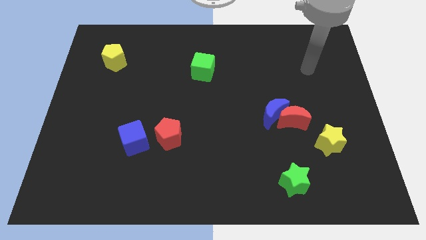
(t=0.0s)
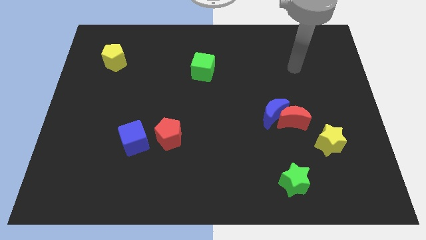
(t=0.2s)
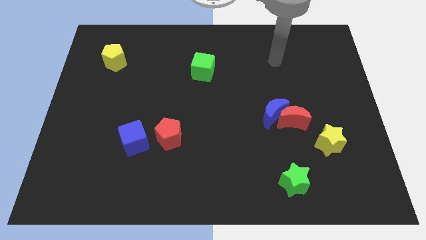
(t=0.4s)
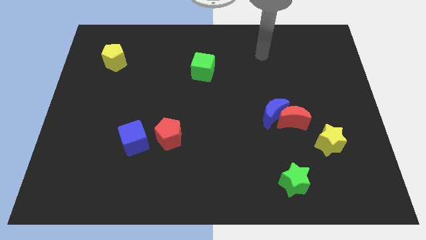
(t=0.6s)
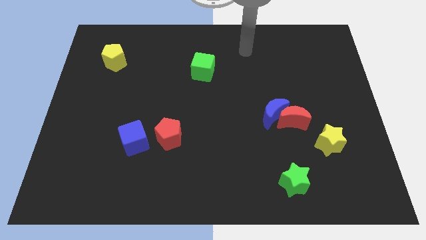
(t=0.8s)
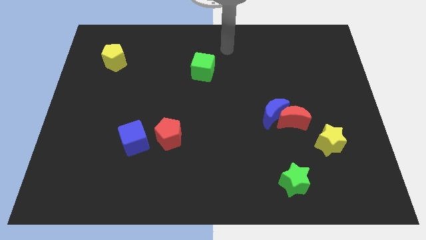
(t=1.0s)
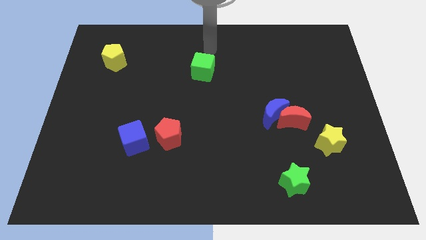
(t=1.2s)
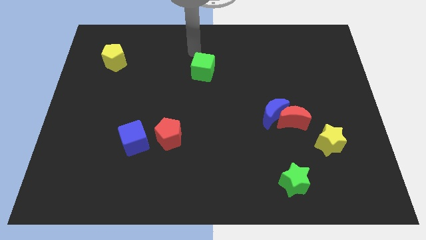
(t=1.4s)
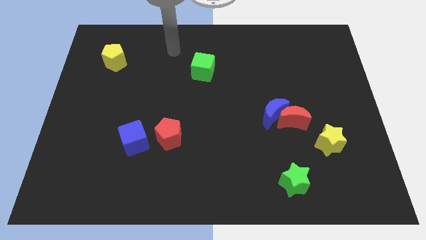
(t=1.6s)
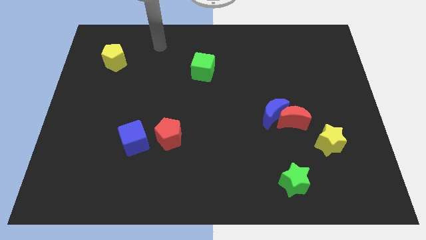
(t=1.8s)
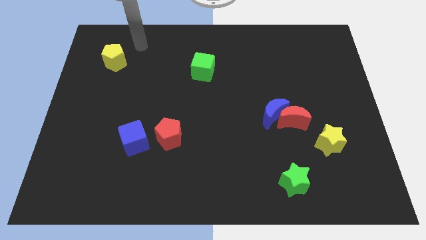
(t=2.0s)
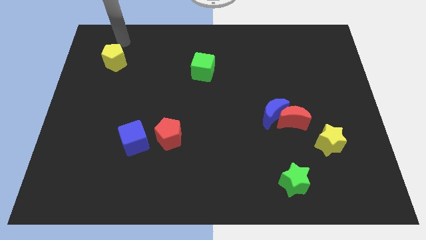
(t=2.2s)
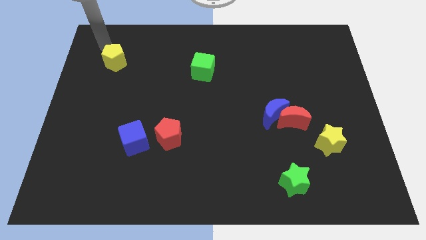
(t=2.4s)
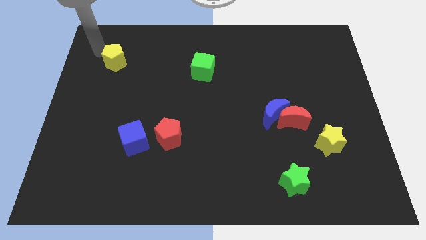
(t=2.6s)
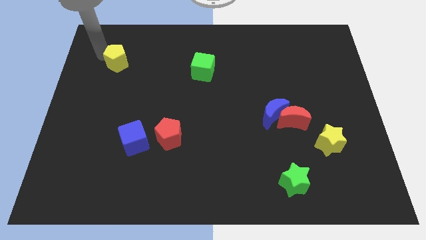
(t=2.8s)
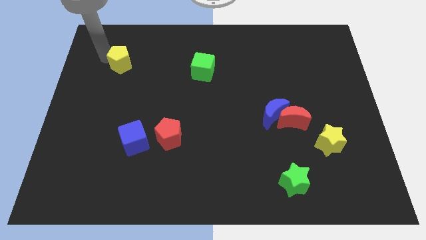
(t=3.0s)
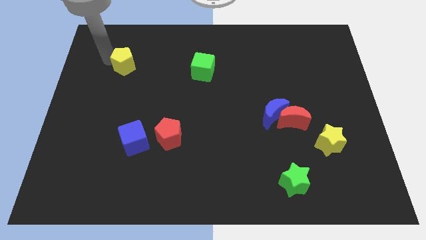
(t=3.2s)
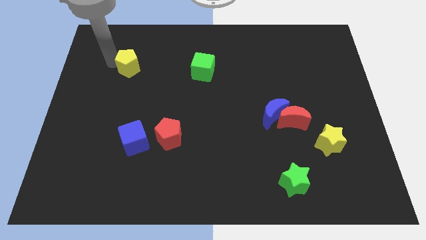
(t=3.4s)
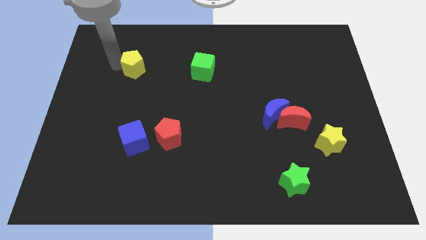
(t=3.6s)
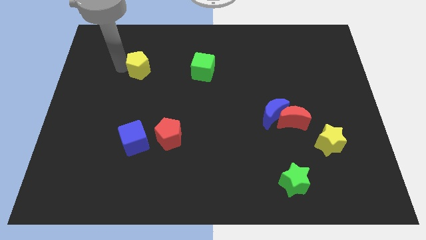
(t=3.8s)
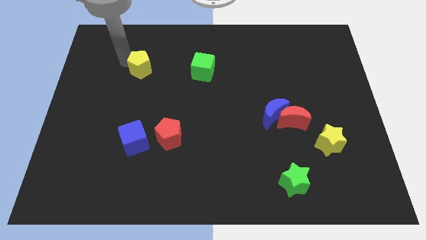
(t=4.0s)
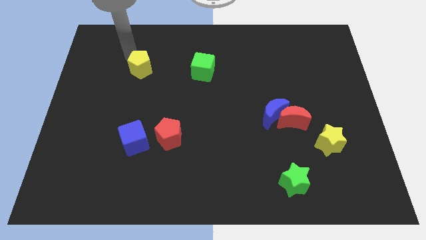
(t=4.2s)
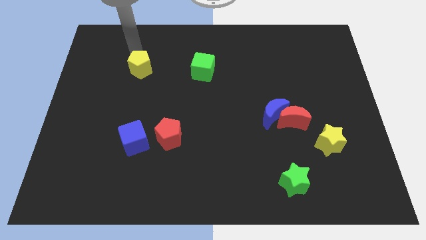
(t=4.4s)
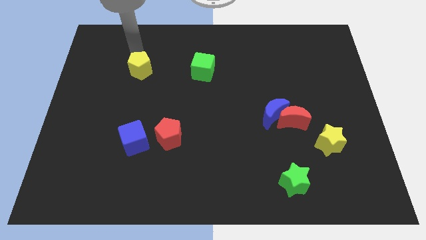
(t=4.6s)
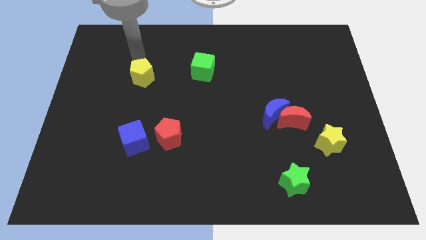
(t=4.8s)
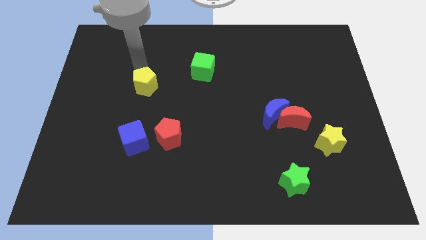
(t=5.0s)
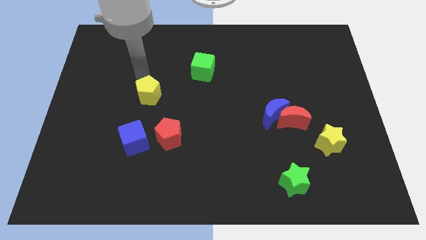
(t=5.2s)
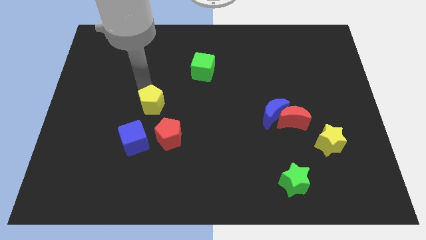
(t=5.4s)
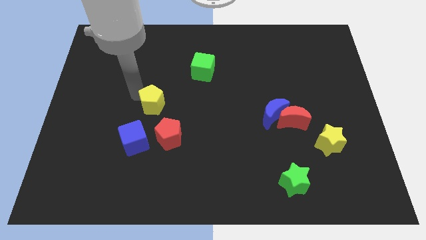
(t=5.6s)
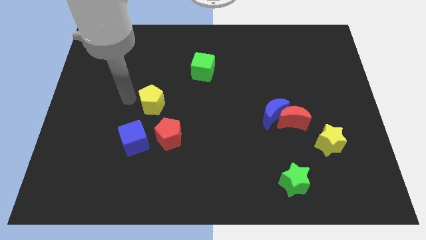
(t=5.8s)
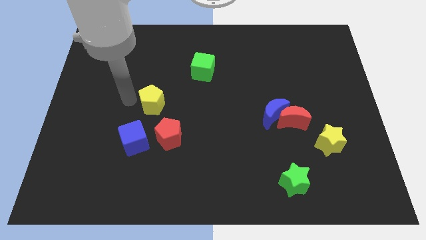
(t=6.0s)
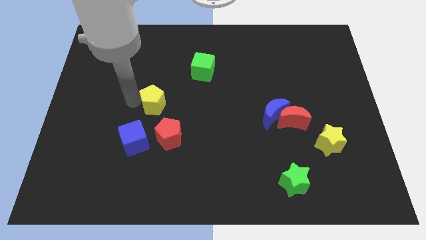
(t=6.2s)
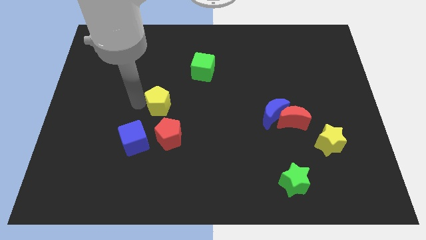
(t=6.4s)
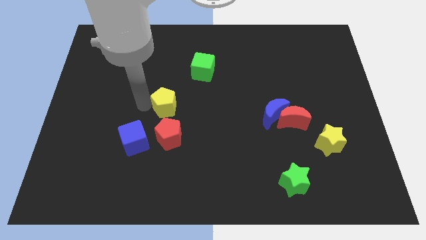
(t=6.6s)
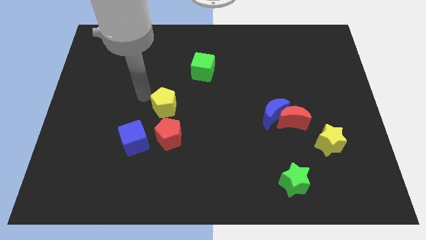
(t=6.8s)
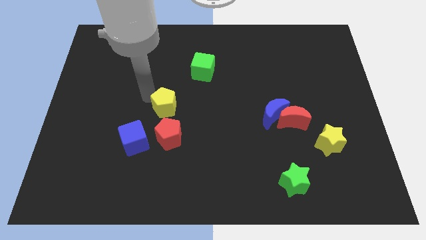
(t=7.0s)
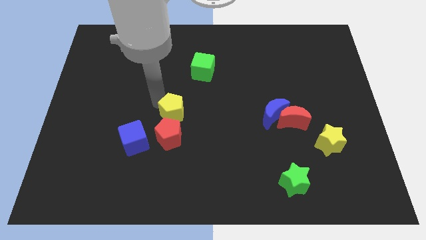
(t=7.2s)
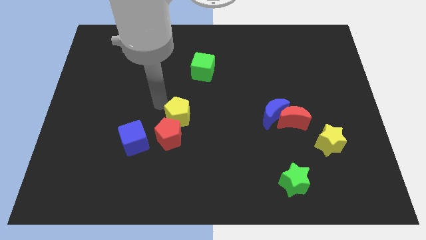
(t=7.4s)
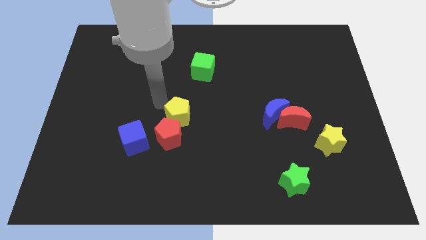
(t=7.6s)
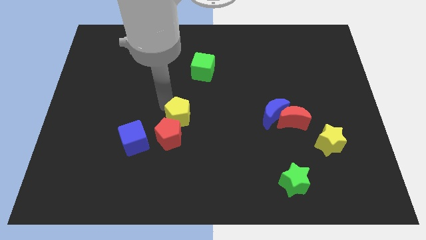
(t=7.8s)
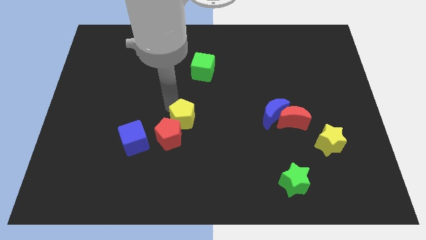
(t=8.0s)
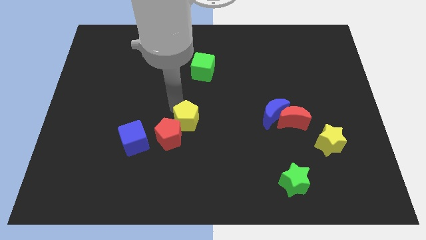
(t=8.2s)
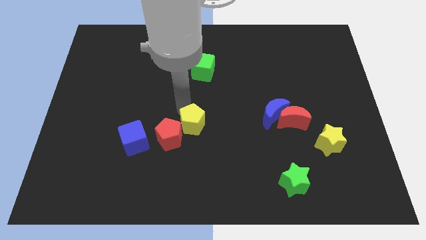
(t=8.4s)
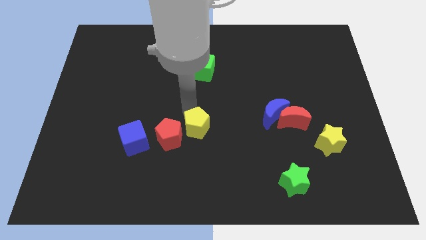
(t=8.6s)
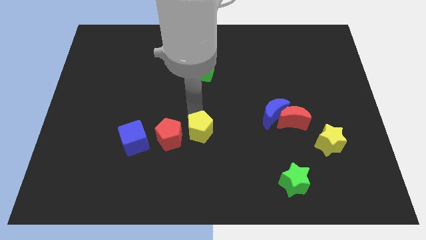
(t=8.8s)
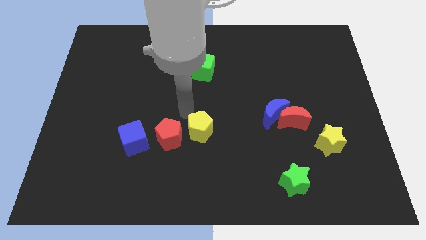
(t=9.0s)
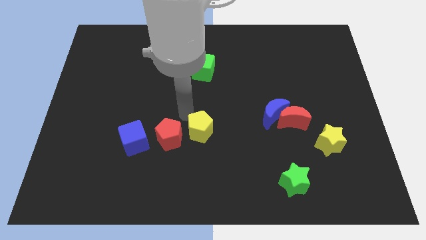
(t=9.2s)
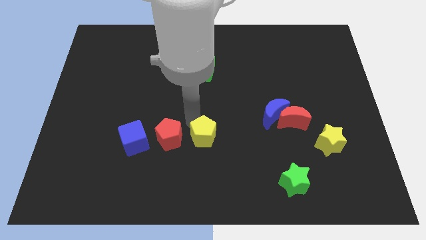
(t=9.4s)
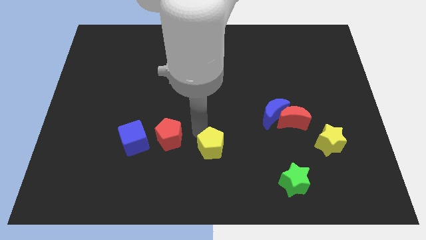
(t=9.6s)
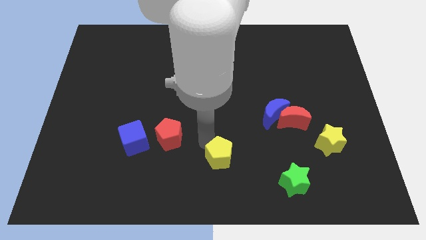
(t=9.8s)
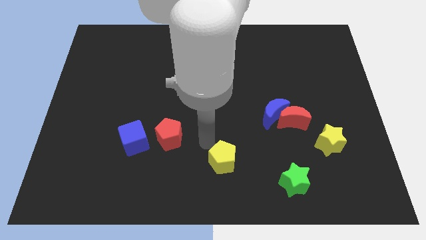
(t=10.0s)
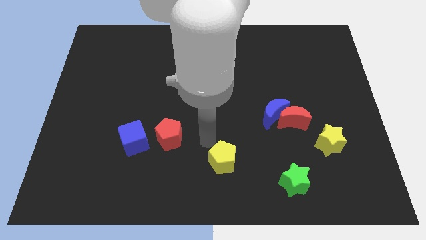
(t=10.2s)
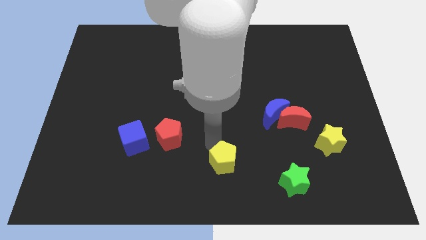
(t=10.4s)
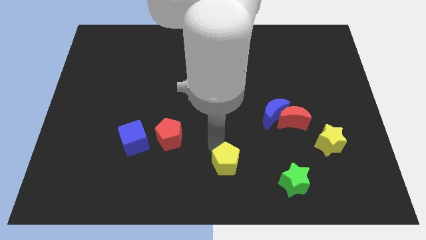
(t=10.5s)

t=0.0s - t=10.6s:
slide the yellow pentagon left of the green star

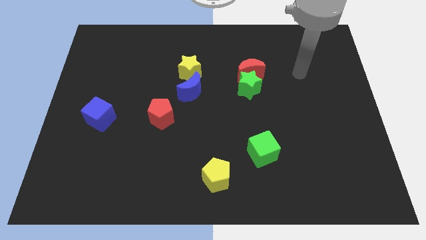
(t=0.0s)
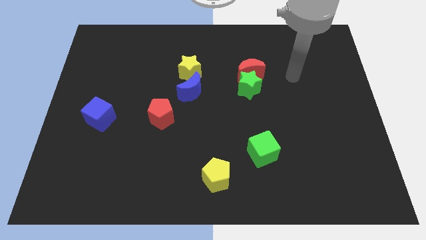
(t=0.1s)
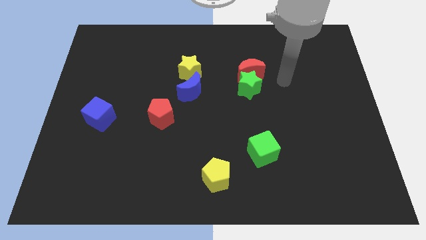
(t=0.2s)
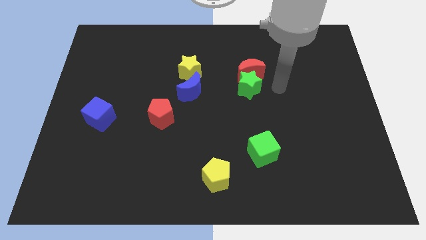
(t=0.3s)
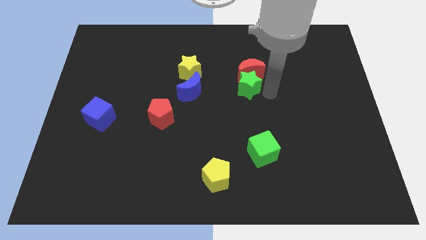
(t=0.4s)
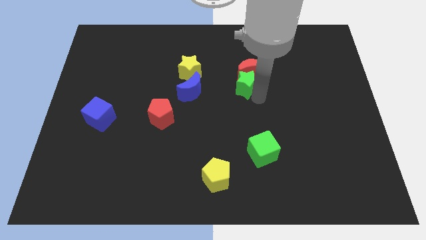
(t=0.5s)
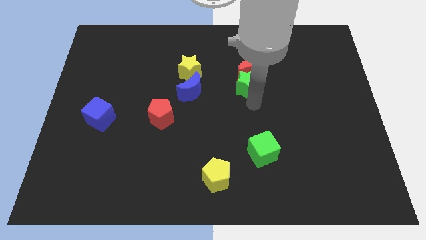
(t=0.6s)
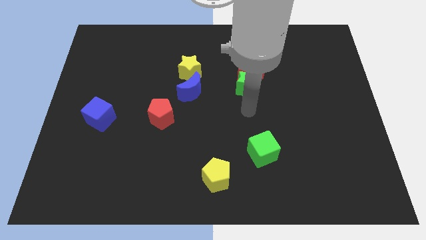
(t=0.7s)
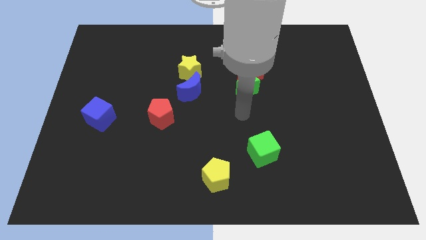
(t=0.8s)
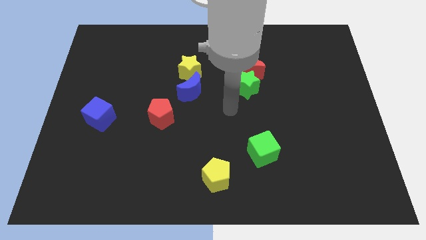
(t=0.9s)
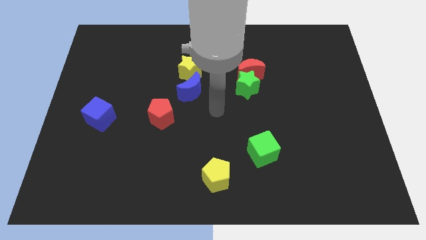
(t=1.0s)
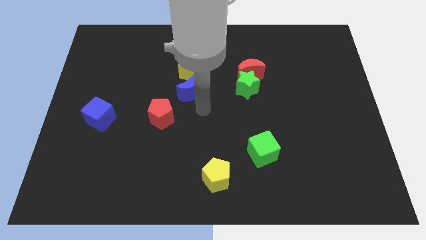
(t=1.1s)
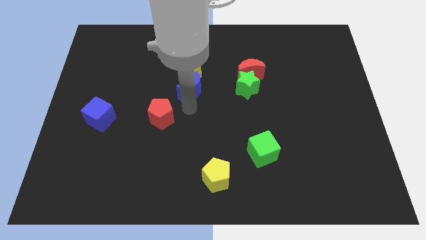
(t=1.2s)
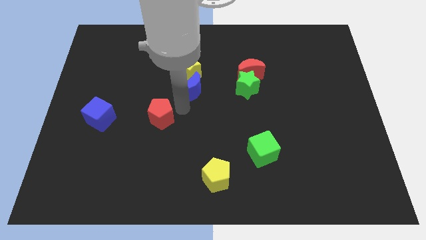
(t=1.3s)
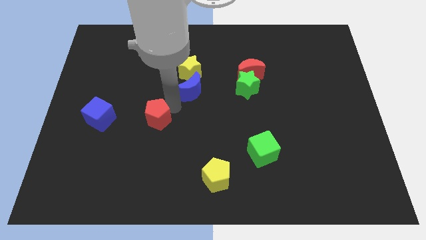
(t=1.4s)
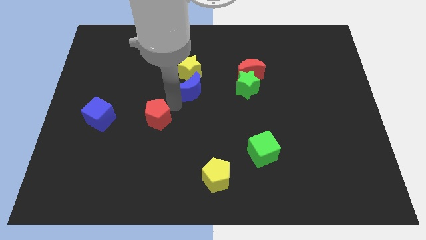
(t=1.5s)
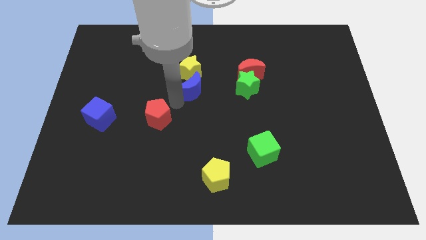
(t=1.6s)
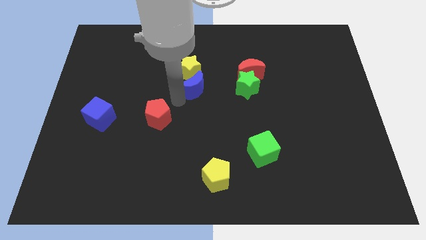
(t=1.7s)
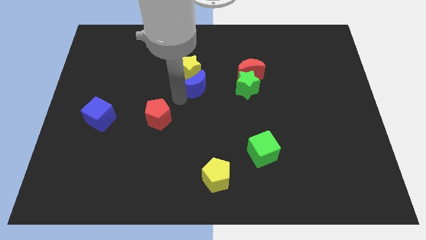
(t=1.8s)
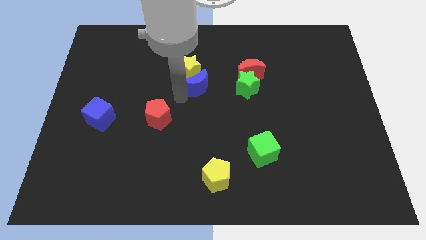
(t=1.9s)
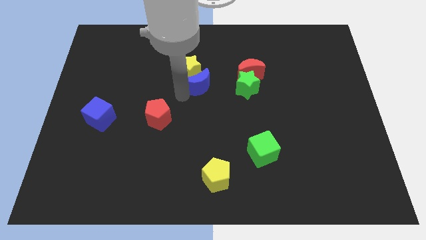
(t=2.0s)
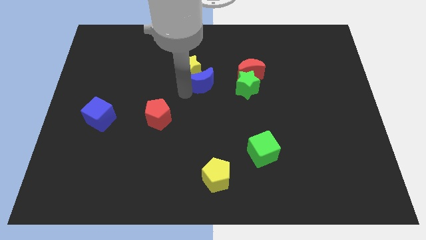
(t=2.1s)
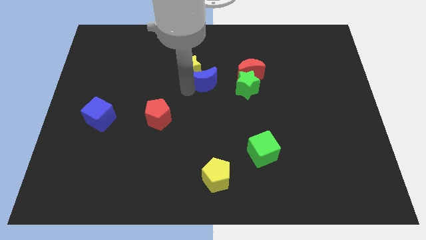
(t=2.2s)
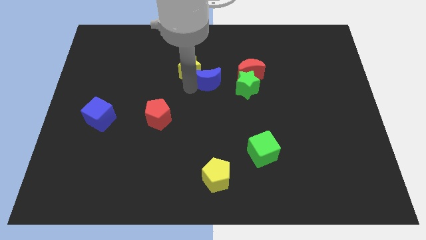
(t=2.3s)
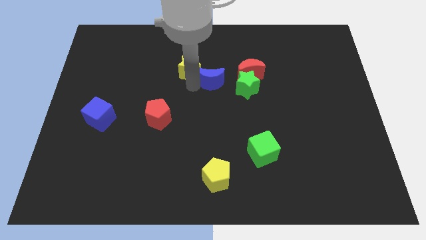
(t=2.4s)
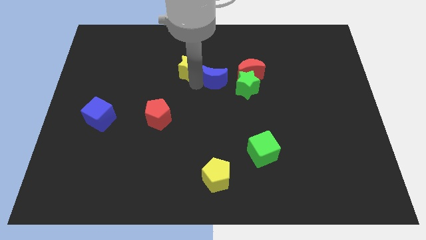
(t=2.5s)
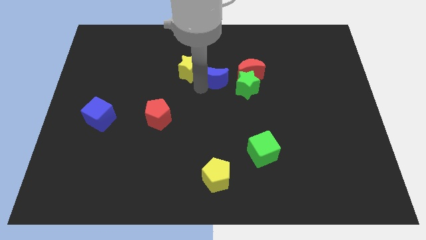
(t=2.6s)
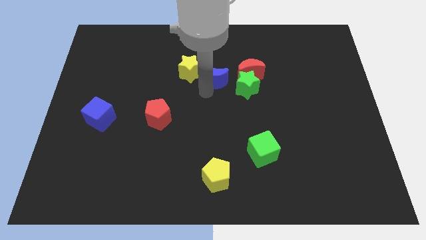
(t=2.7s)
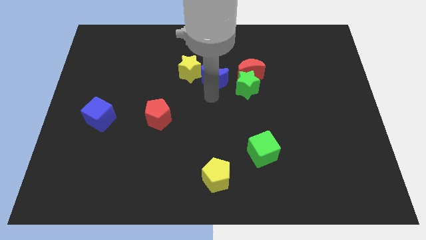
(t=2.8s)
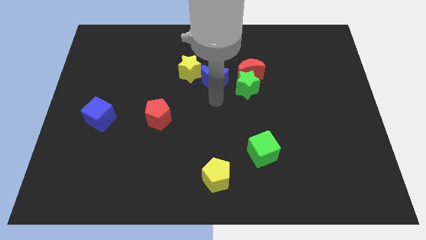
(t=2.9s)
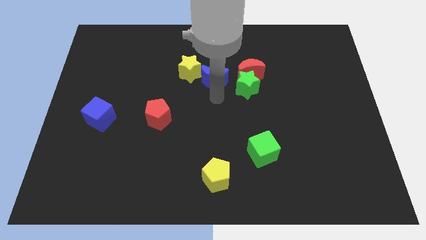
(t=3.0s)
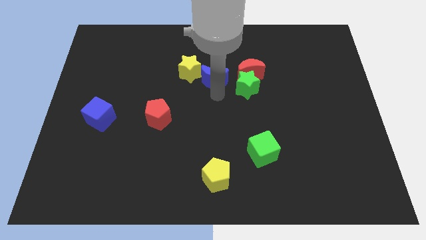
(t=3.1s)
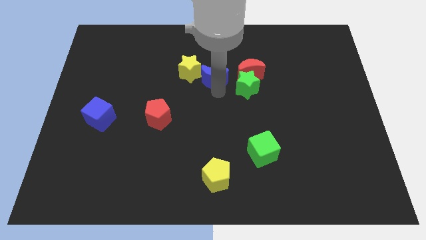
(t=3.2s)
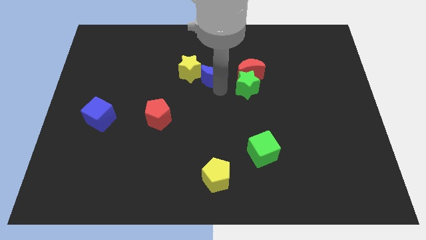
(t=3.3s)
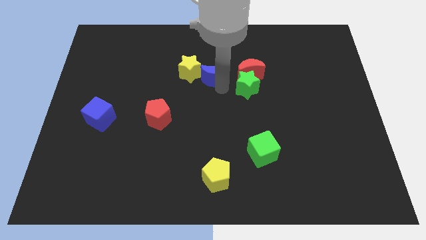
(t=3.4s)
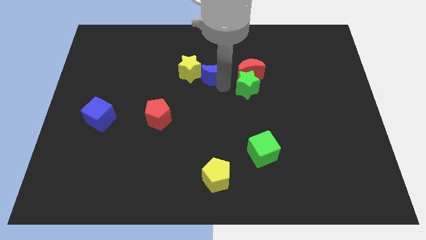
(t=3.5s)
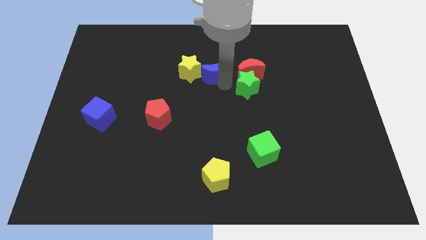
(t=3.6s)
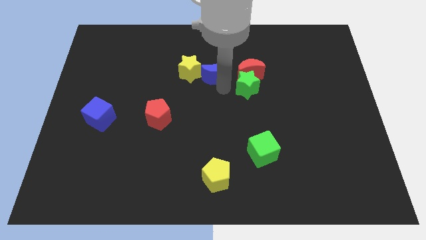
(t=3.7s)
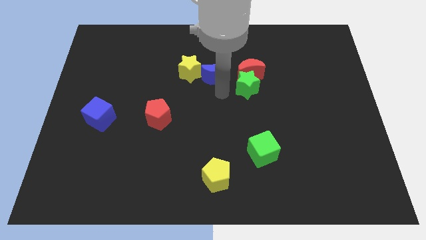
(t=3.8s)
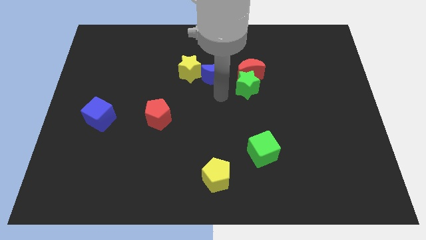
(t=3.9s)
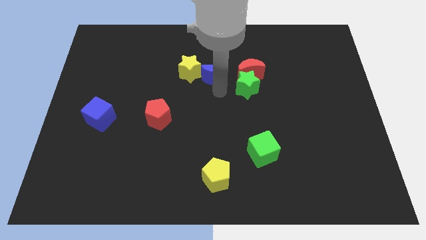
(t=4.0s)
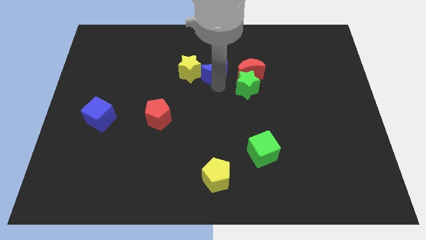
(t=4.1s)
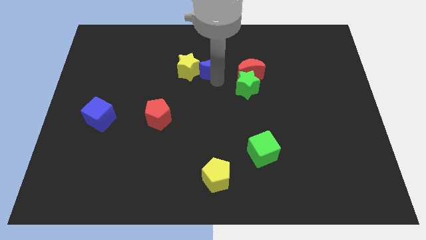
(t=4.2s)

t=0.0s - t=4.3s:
push the blue moon to the top right side of the yellow star
